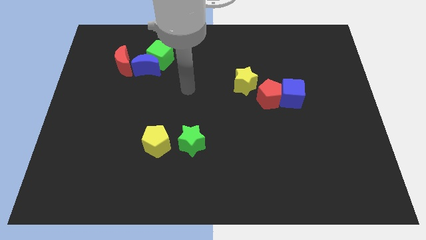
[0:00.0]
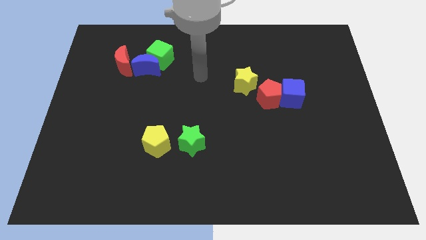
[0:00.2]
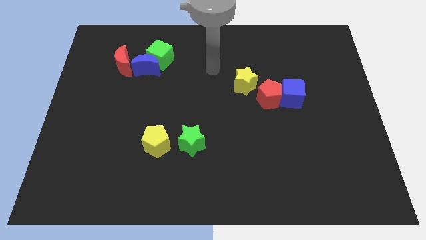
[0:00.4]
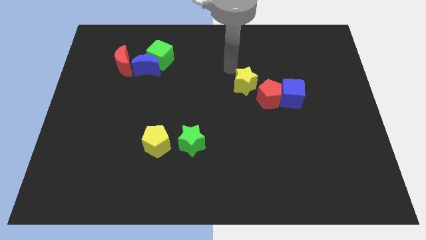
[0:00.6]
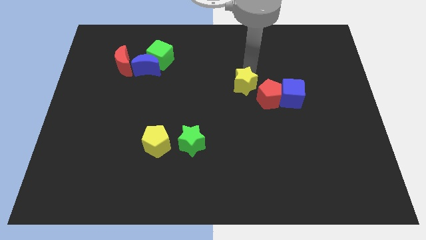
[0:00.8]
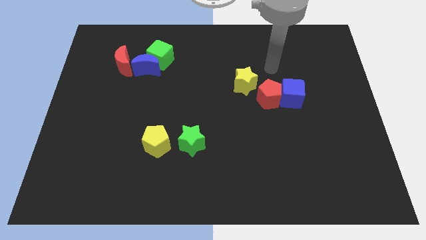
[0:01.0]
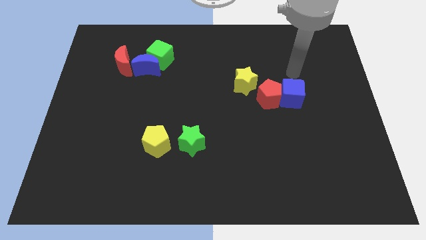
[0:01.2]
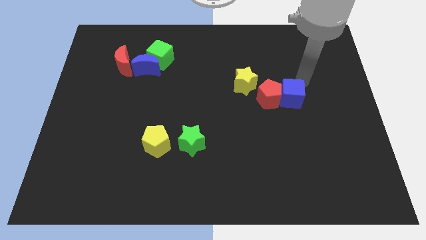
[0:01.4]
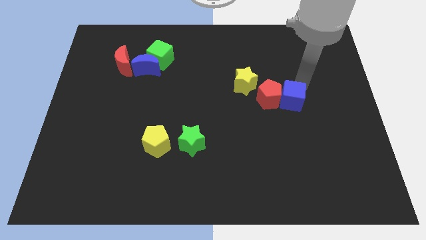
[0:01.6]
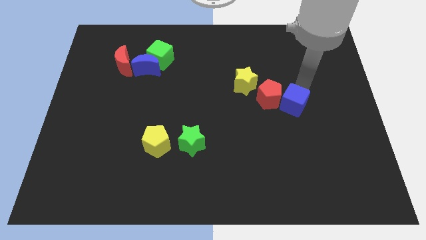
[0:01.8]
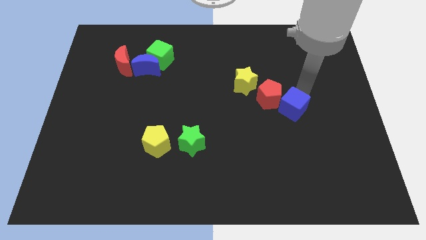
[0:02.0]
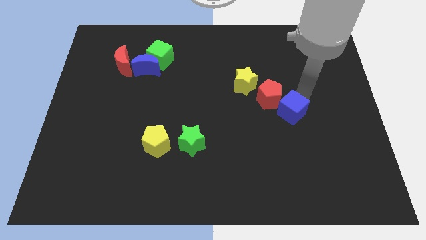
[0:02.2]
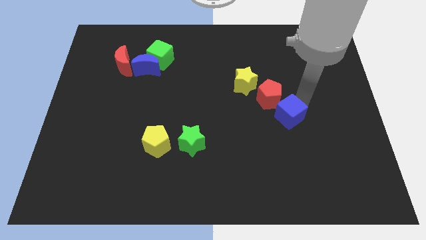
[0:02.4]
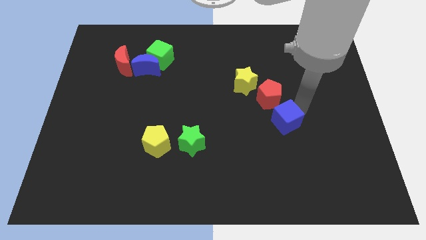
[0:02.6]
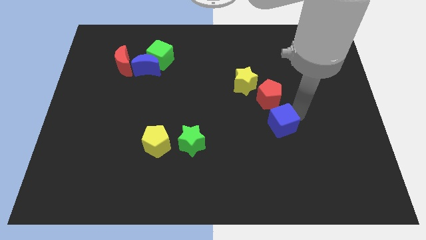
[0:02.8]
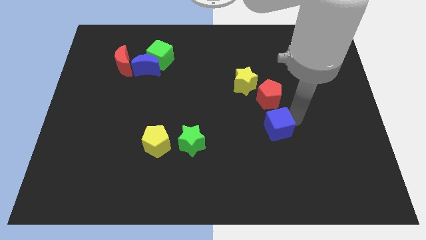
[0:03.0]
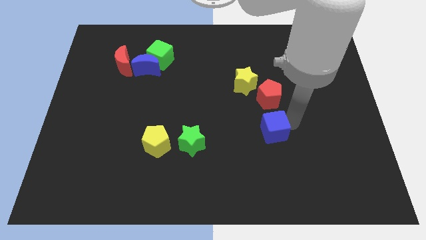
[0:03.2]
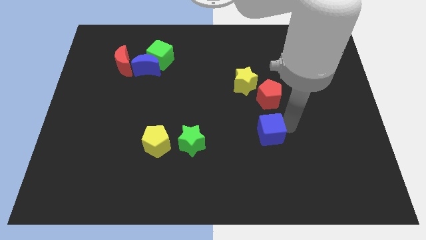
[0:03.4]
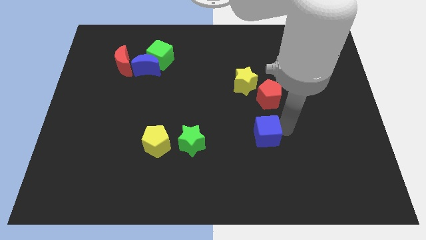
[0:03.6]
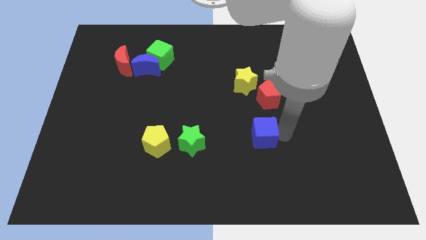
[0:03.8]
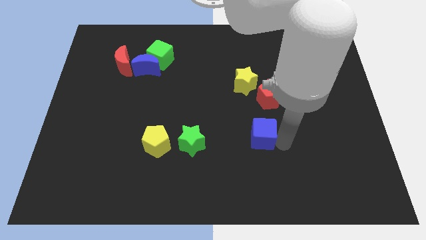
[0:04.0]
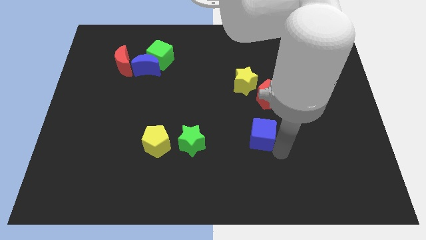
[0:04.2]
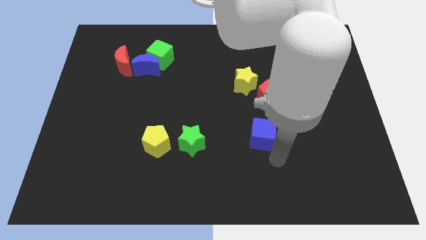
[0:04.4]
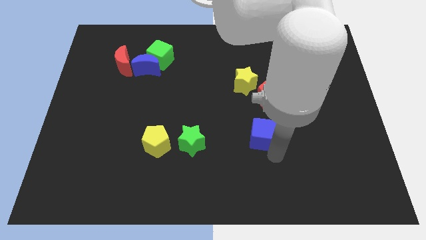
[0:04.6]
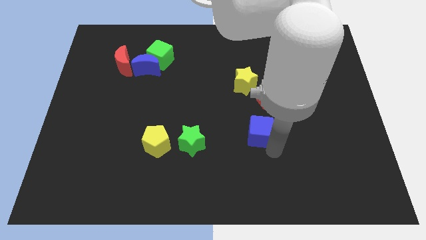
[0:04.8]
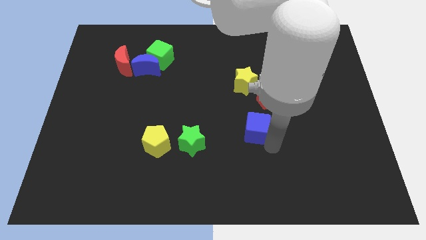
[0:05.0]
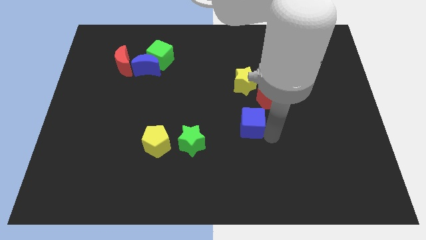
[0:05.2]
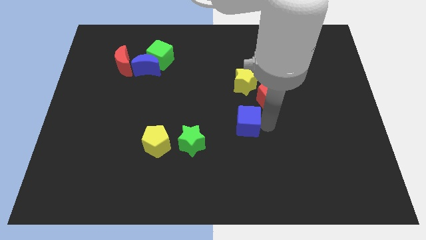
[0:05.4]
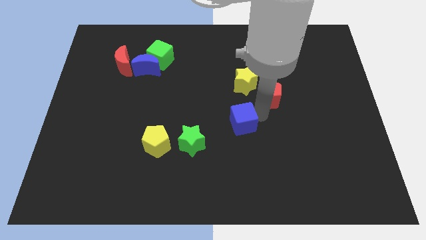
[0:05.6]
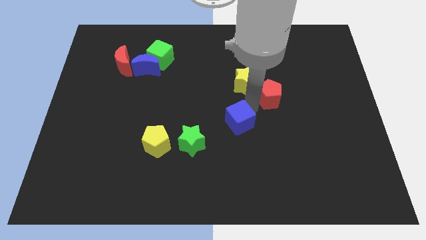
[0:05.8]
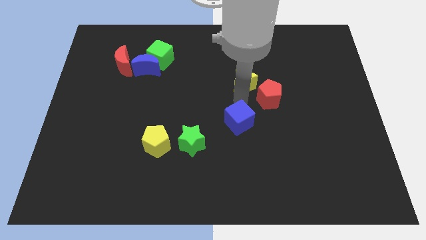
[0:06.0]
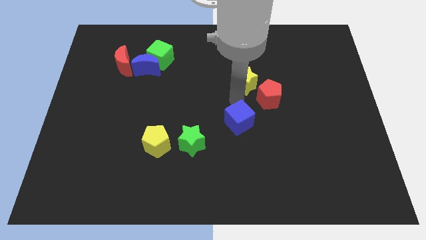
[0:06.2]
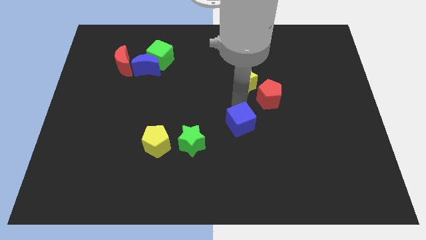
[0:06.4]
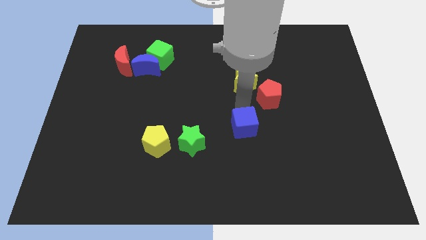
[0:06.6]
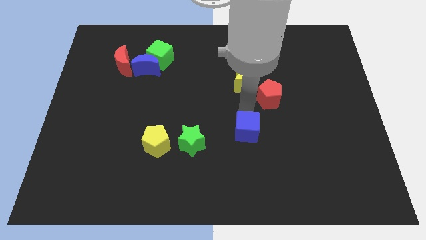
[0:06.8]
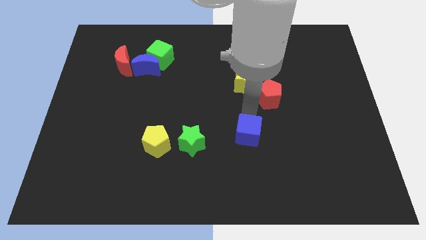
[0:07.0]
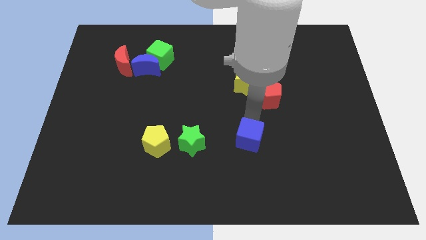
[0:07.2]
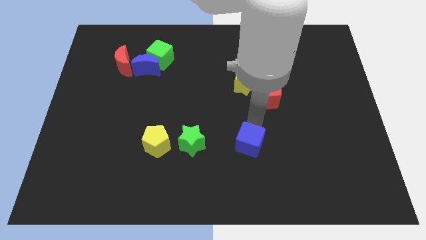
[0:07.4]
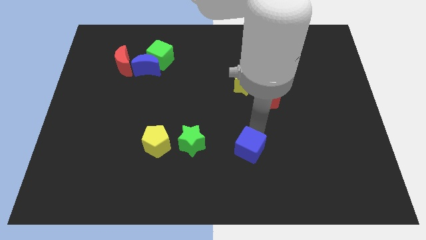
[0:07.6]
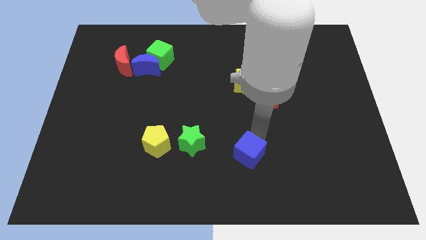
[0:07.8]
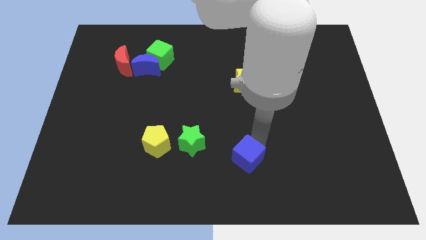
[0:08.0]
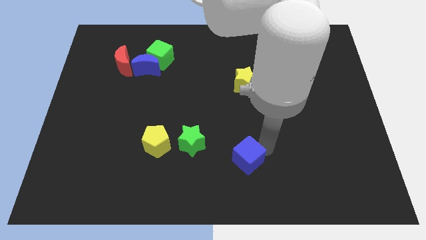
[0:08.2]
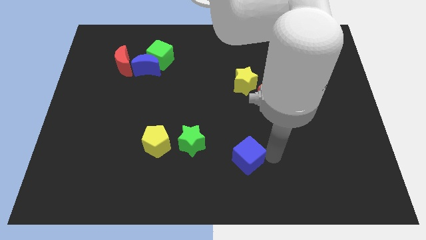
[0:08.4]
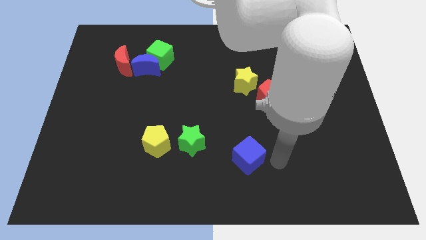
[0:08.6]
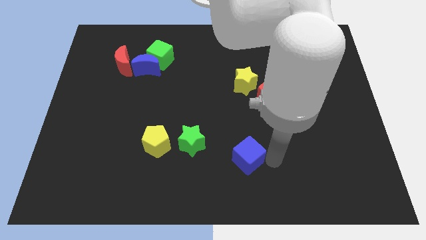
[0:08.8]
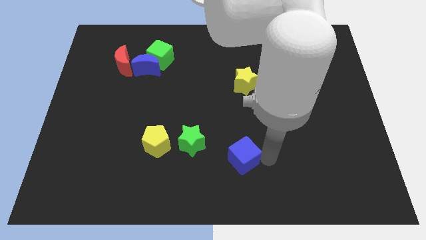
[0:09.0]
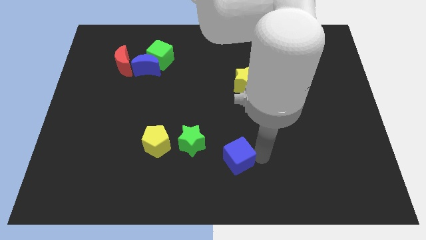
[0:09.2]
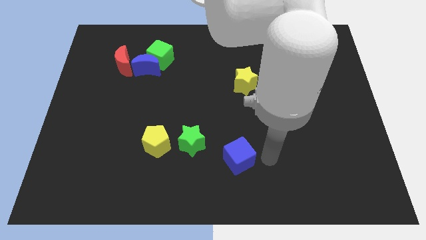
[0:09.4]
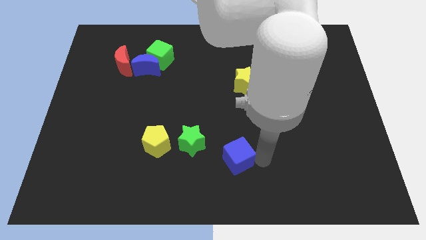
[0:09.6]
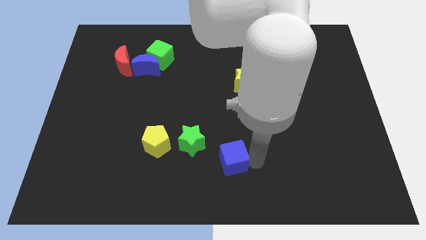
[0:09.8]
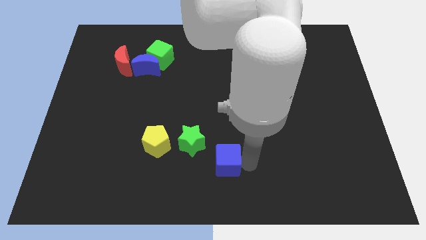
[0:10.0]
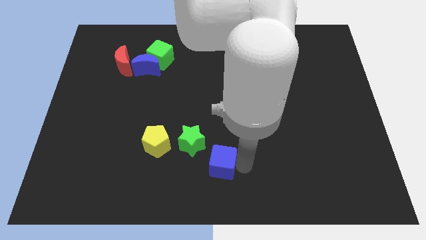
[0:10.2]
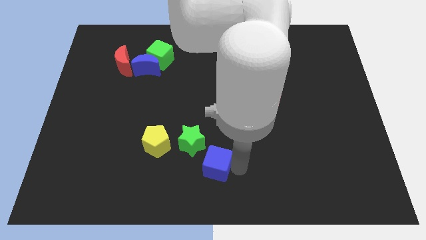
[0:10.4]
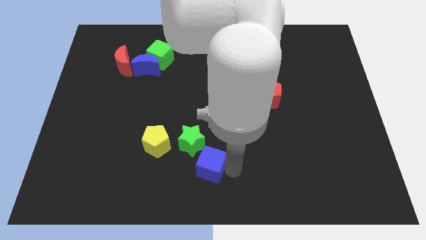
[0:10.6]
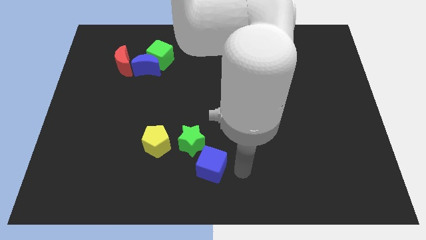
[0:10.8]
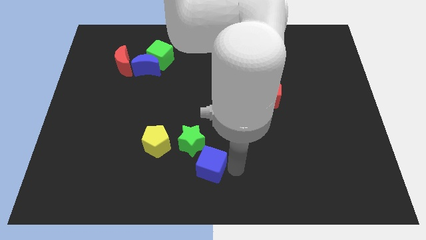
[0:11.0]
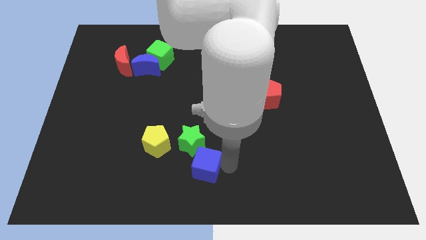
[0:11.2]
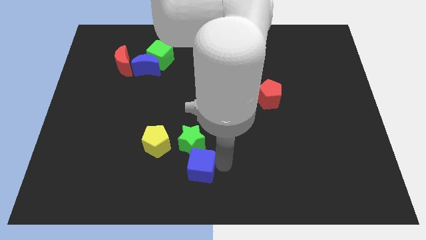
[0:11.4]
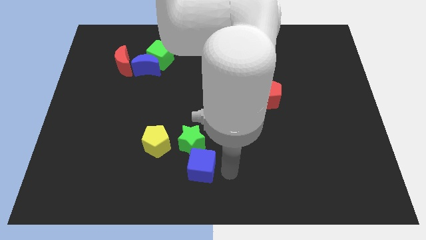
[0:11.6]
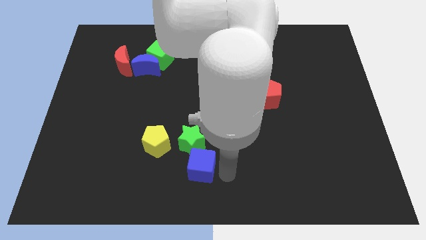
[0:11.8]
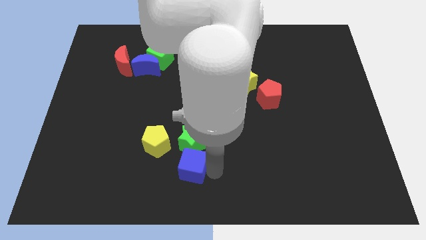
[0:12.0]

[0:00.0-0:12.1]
slide the blue cube to the bottom left of the green star

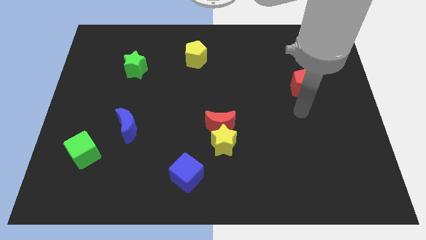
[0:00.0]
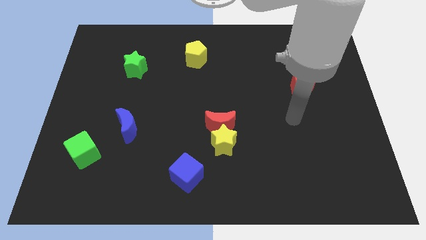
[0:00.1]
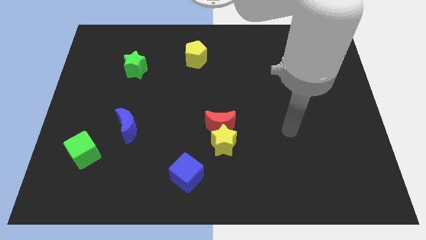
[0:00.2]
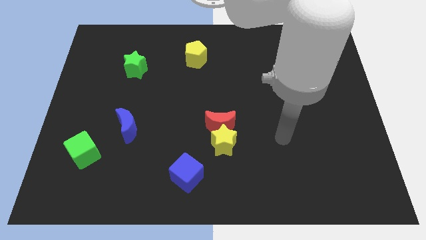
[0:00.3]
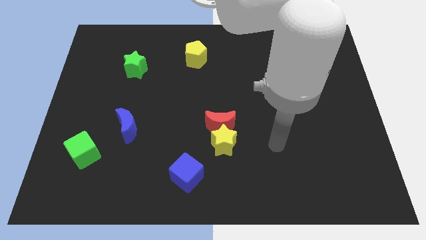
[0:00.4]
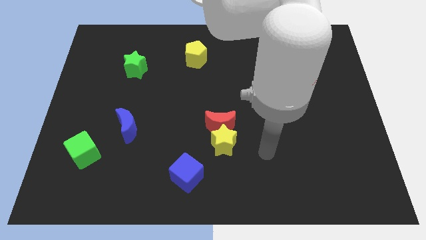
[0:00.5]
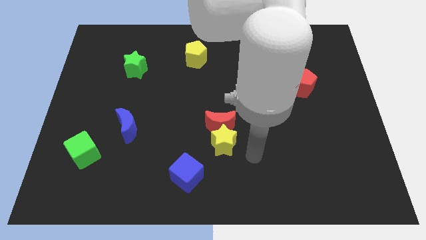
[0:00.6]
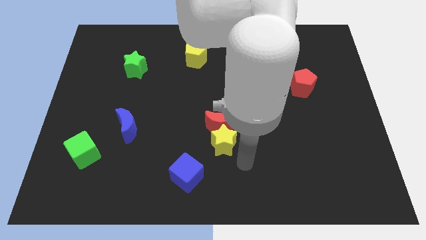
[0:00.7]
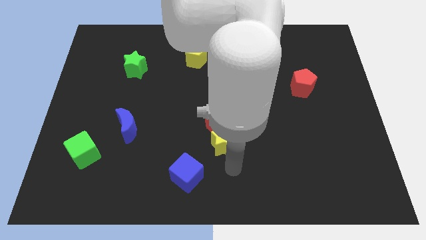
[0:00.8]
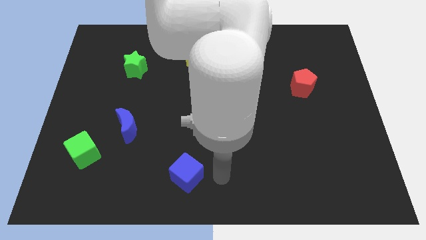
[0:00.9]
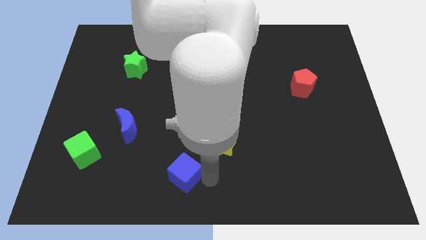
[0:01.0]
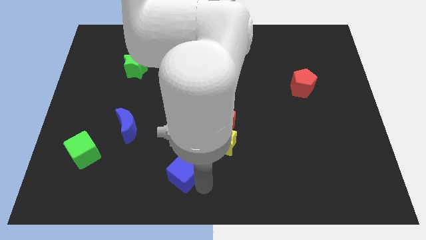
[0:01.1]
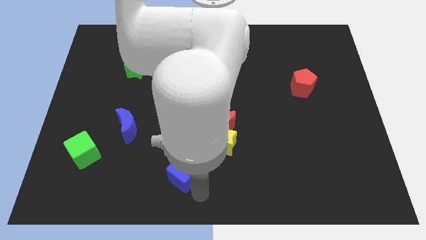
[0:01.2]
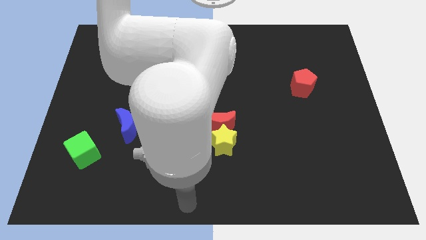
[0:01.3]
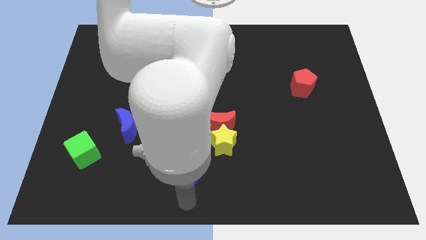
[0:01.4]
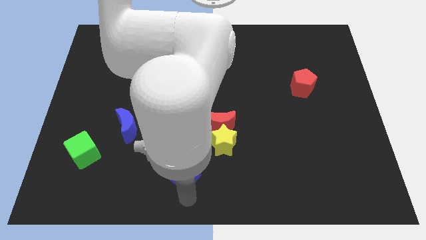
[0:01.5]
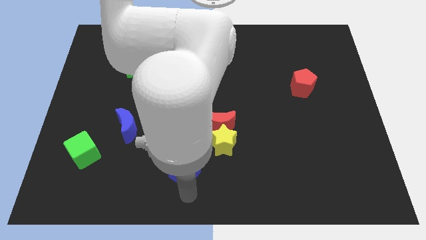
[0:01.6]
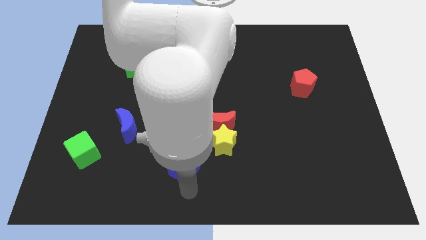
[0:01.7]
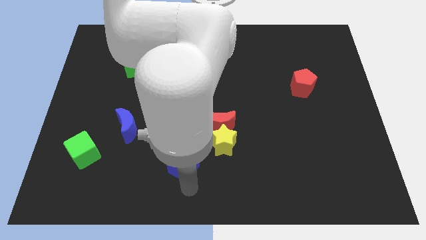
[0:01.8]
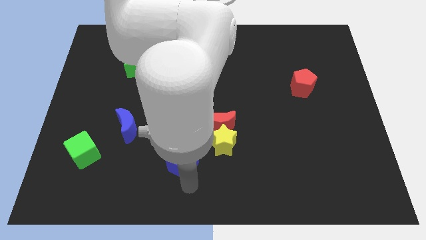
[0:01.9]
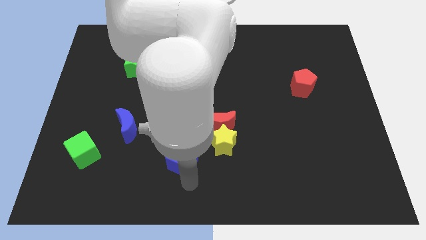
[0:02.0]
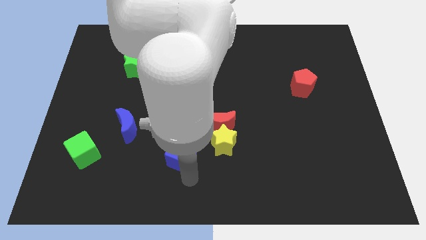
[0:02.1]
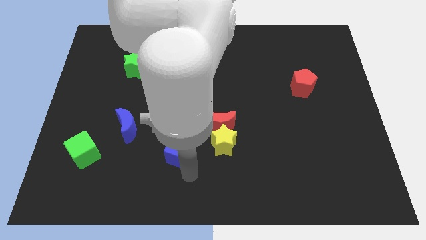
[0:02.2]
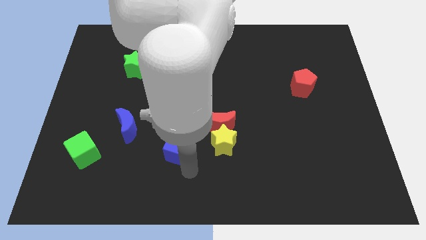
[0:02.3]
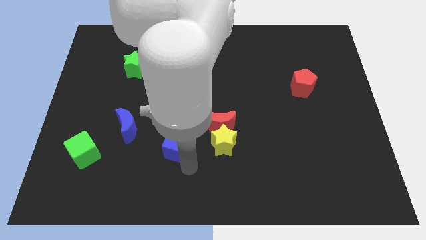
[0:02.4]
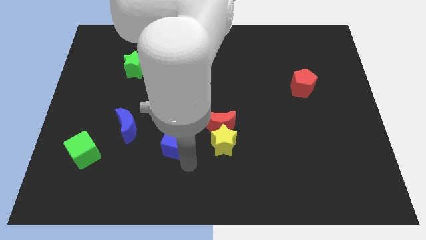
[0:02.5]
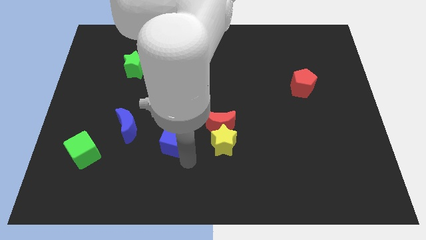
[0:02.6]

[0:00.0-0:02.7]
push the blue cube to the left of the red moon
